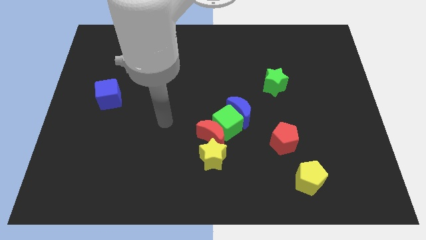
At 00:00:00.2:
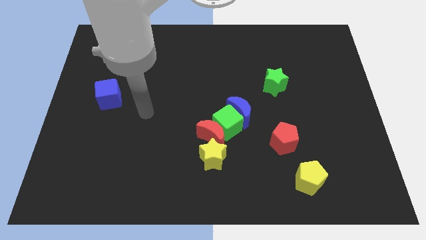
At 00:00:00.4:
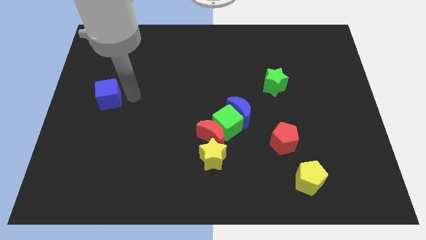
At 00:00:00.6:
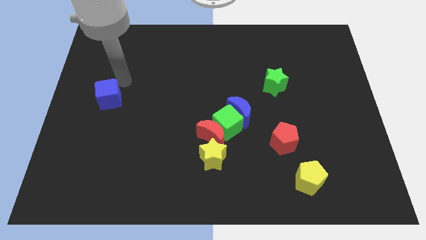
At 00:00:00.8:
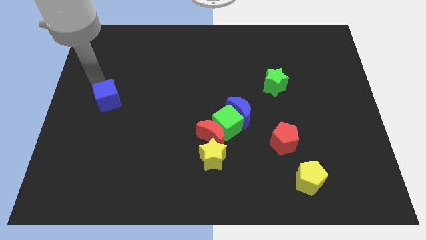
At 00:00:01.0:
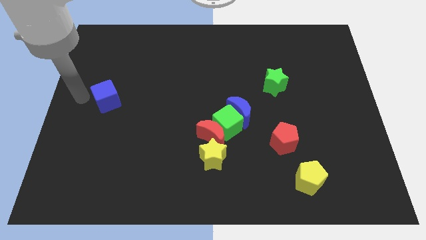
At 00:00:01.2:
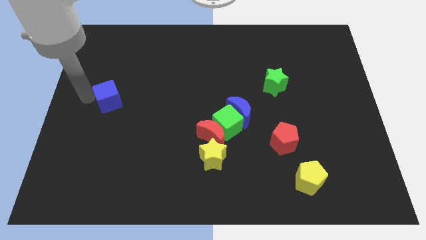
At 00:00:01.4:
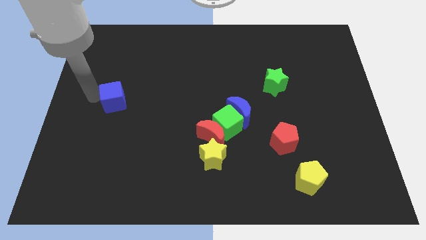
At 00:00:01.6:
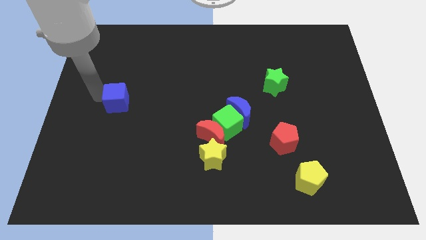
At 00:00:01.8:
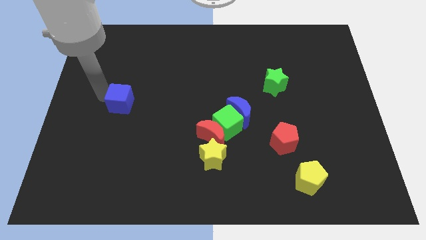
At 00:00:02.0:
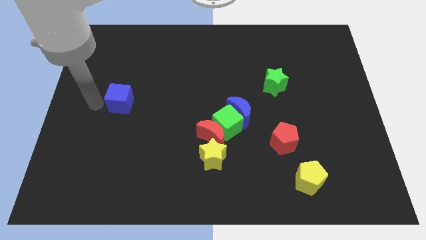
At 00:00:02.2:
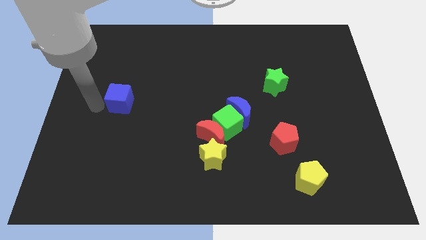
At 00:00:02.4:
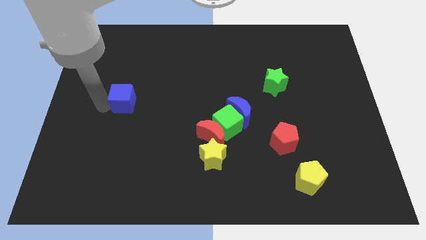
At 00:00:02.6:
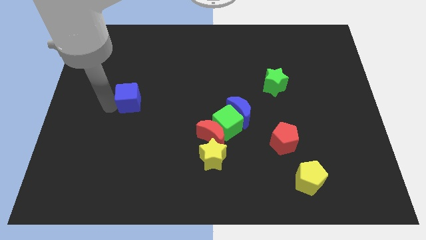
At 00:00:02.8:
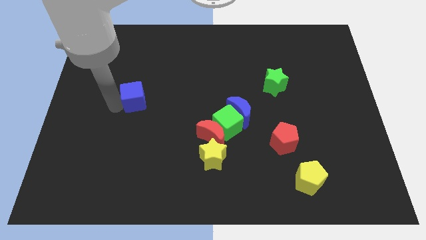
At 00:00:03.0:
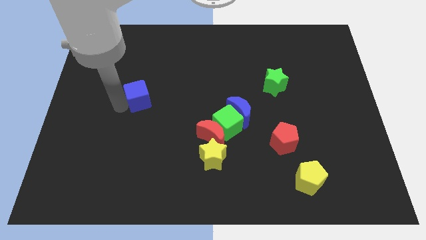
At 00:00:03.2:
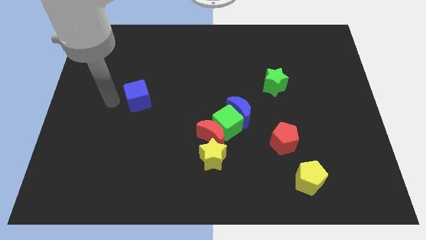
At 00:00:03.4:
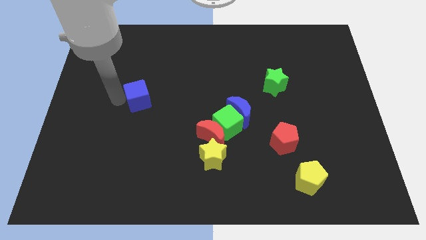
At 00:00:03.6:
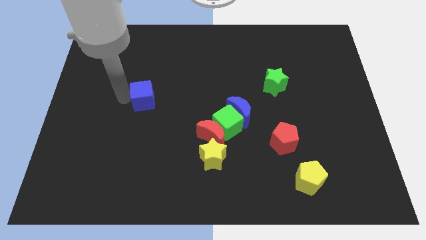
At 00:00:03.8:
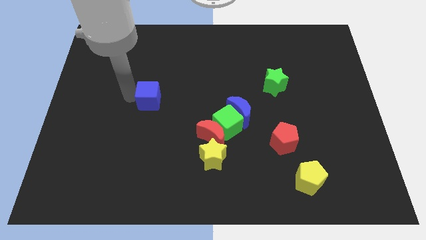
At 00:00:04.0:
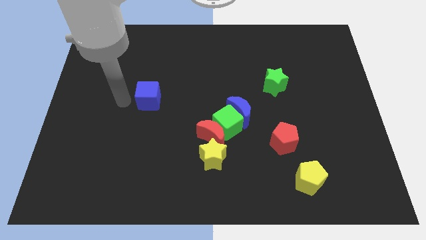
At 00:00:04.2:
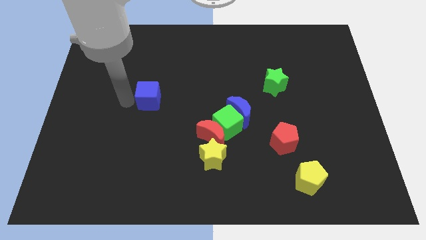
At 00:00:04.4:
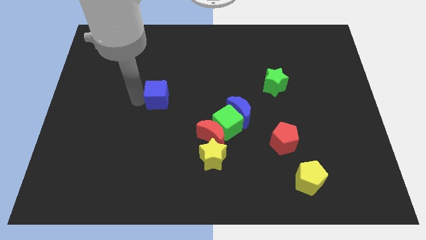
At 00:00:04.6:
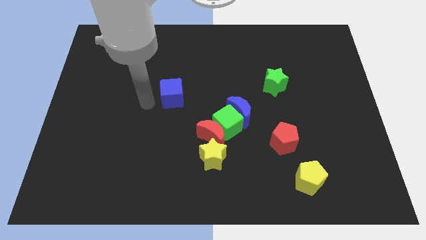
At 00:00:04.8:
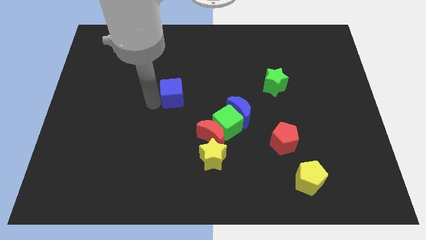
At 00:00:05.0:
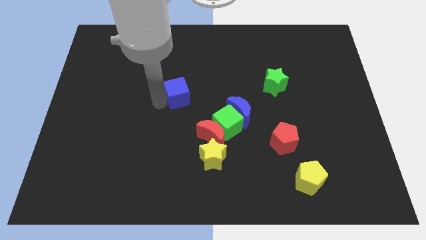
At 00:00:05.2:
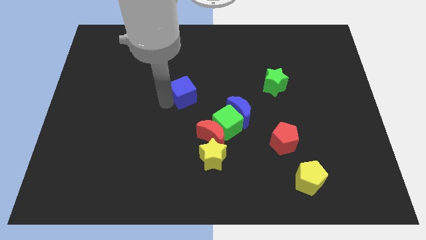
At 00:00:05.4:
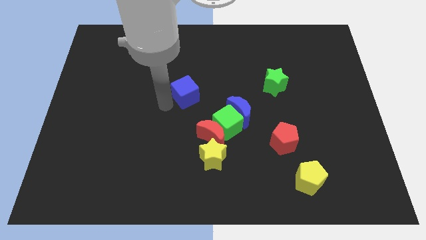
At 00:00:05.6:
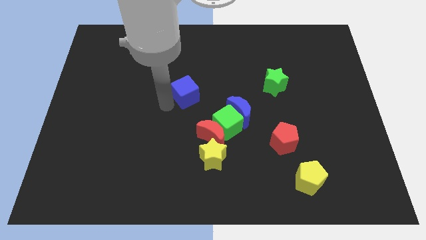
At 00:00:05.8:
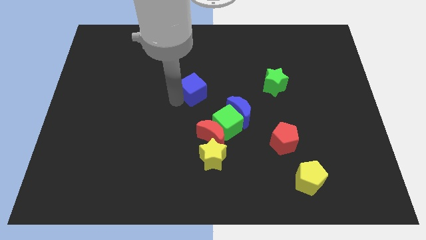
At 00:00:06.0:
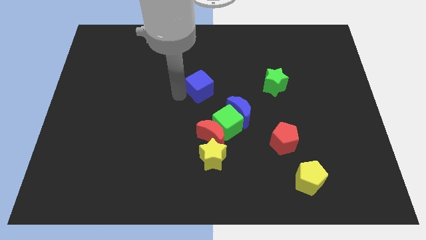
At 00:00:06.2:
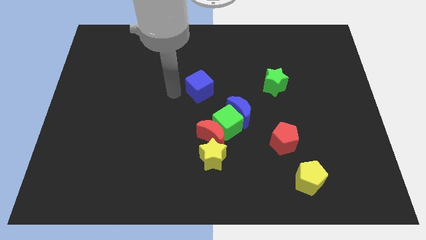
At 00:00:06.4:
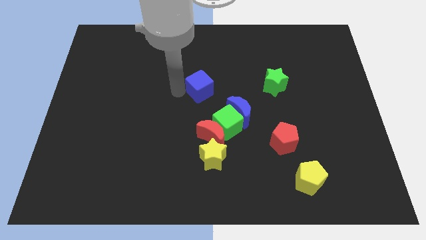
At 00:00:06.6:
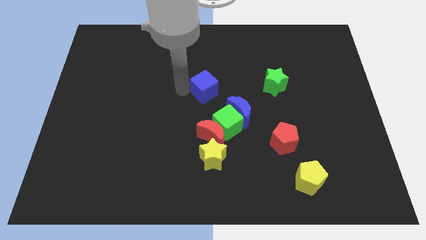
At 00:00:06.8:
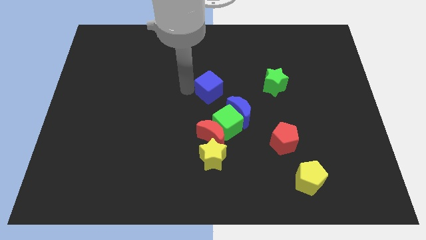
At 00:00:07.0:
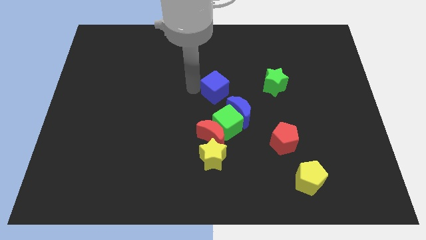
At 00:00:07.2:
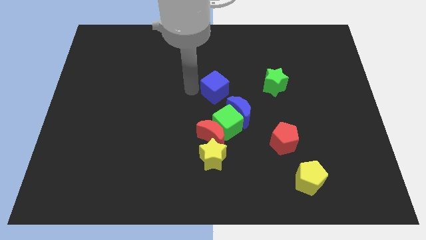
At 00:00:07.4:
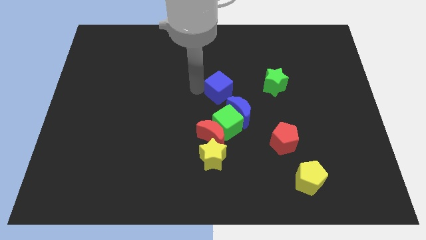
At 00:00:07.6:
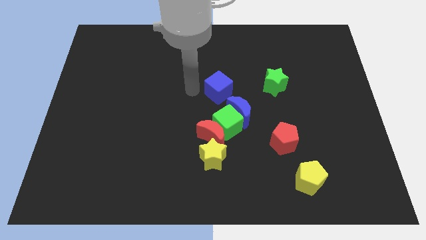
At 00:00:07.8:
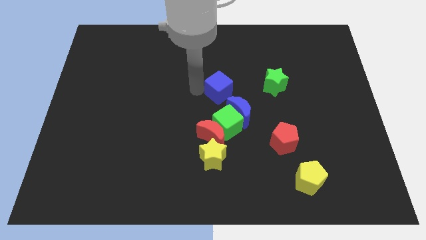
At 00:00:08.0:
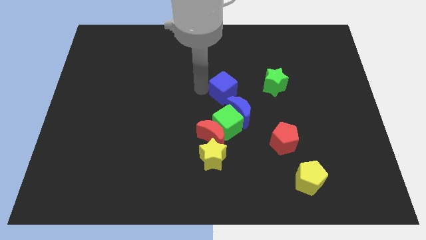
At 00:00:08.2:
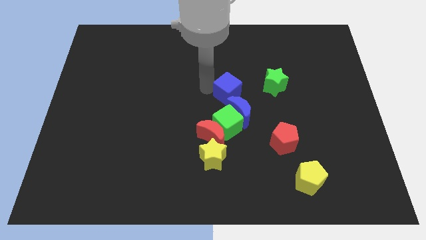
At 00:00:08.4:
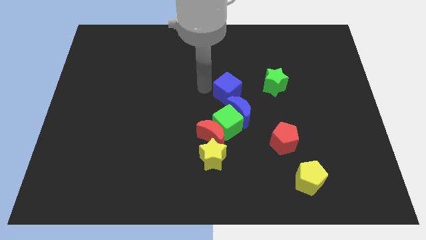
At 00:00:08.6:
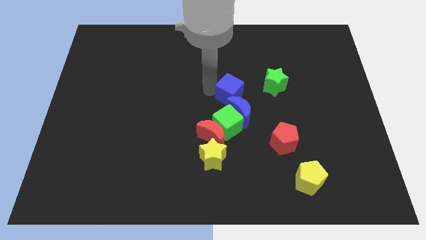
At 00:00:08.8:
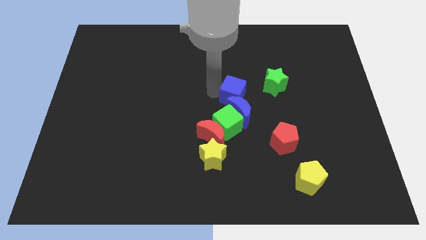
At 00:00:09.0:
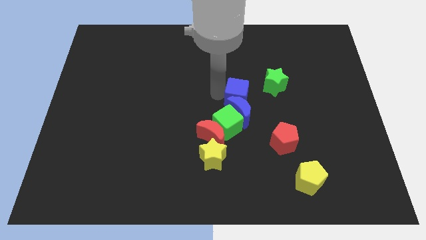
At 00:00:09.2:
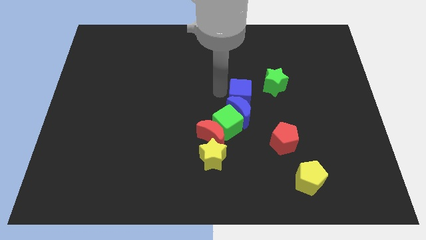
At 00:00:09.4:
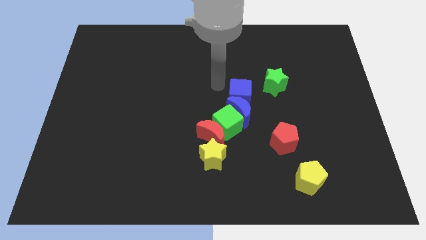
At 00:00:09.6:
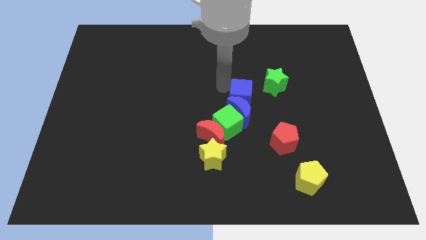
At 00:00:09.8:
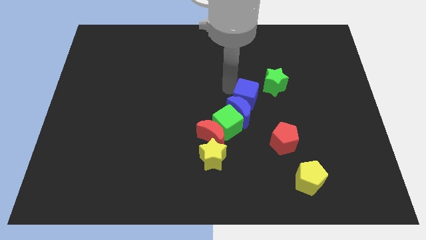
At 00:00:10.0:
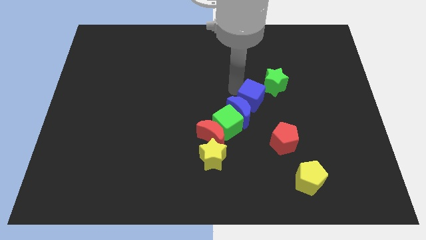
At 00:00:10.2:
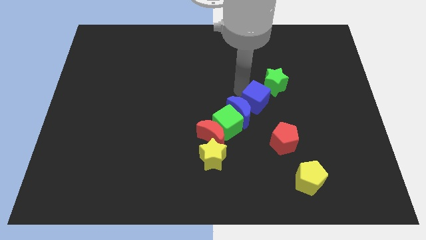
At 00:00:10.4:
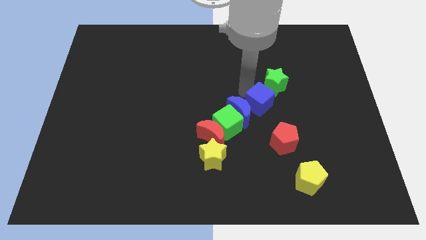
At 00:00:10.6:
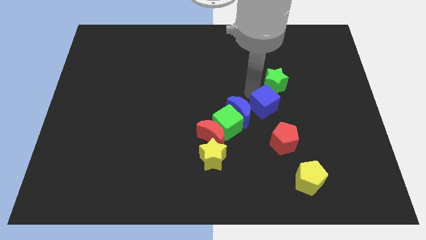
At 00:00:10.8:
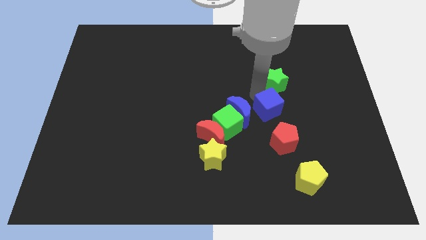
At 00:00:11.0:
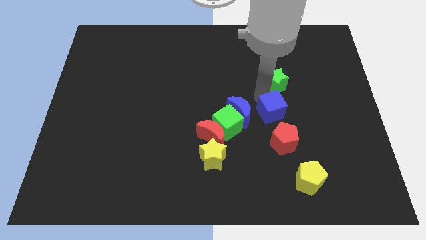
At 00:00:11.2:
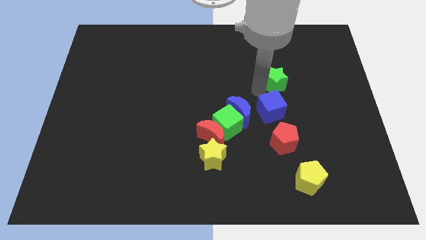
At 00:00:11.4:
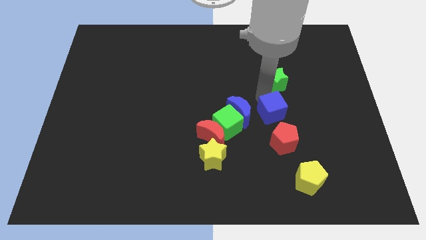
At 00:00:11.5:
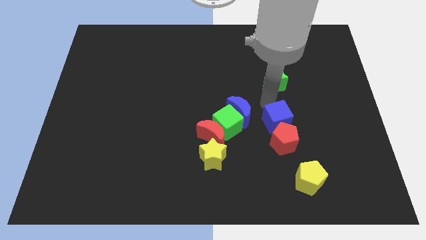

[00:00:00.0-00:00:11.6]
push the blue cube towards the red pentagon

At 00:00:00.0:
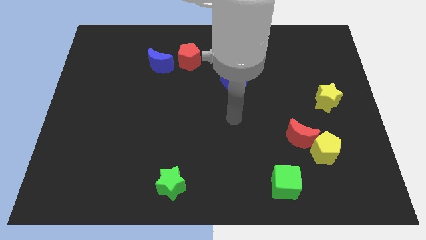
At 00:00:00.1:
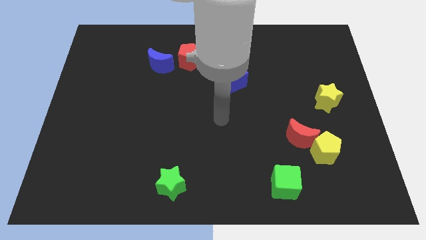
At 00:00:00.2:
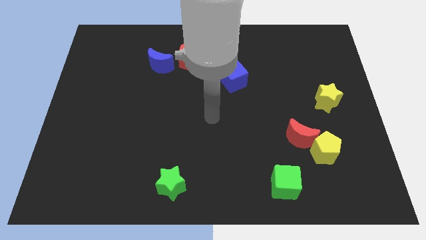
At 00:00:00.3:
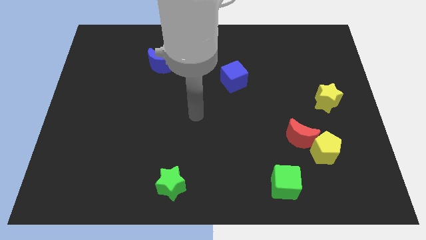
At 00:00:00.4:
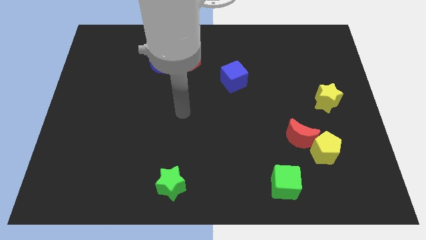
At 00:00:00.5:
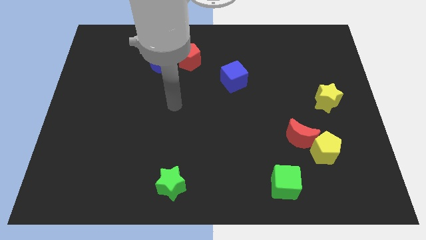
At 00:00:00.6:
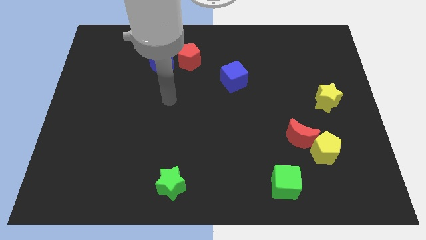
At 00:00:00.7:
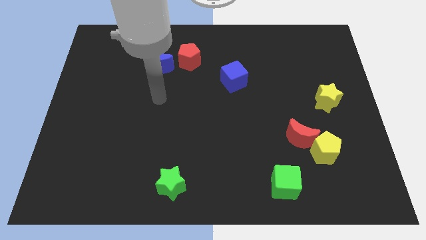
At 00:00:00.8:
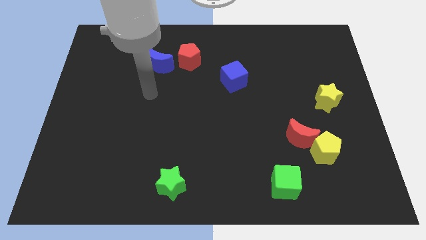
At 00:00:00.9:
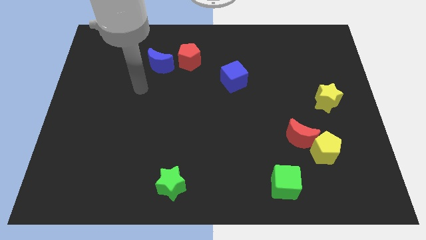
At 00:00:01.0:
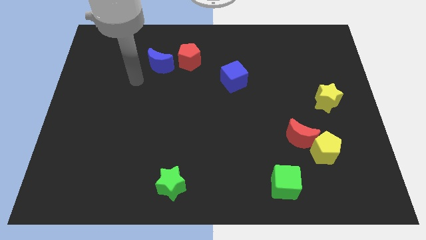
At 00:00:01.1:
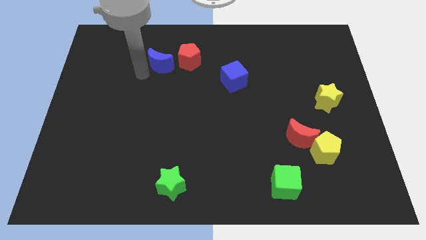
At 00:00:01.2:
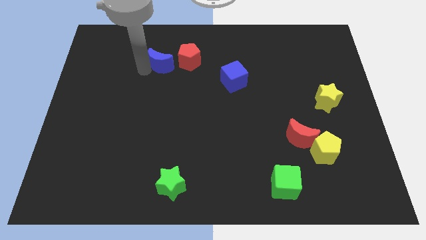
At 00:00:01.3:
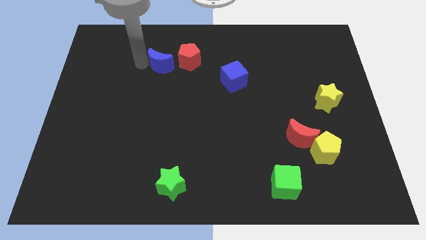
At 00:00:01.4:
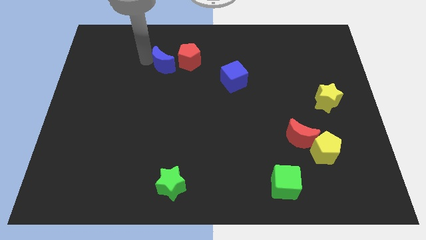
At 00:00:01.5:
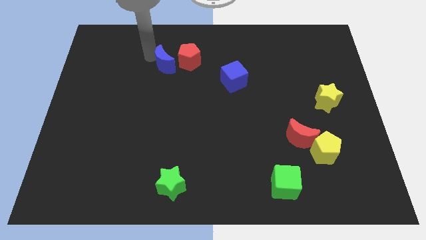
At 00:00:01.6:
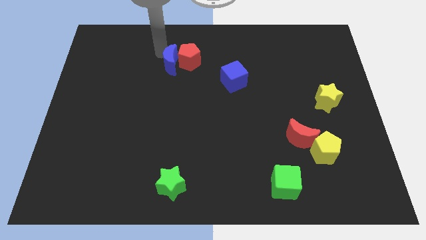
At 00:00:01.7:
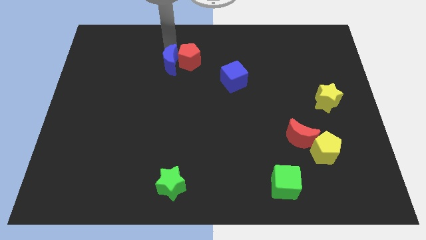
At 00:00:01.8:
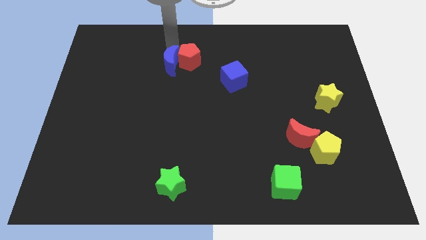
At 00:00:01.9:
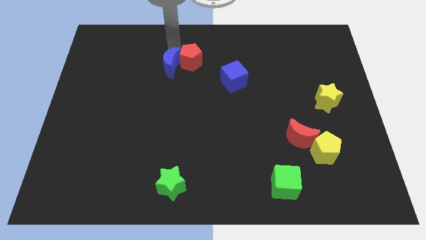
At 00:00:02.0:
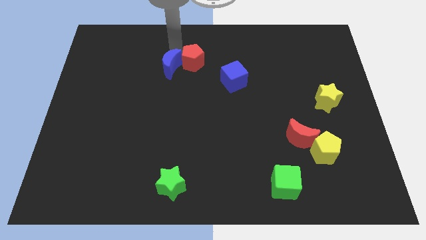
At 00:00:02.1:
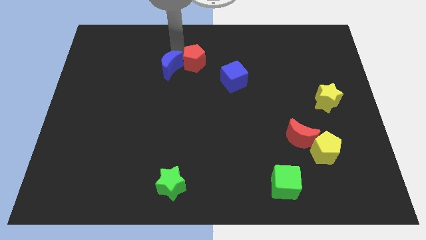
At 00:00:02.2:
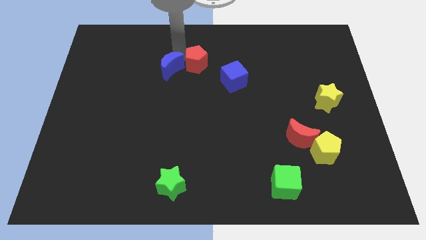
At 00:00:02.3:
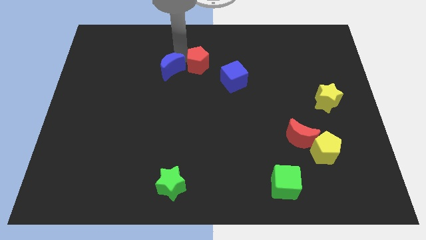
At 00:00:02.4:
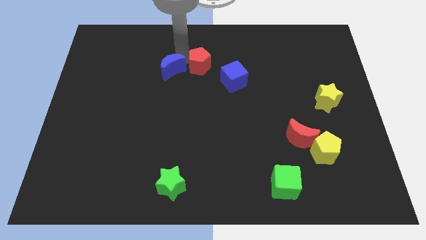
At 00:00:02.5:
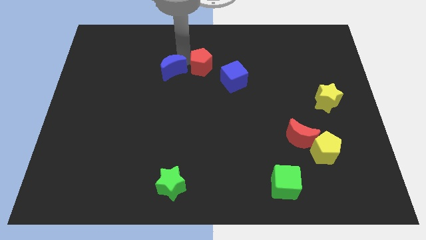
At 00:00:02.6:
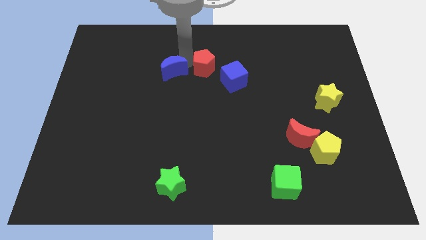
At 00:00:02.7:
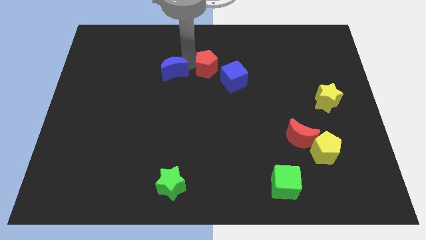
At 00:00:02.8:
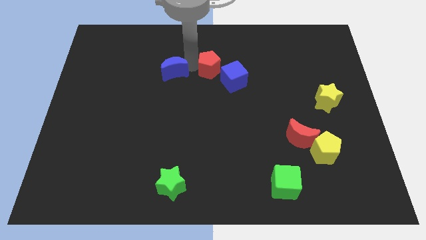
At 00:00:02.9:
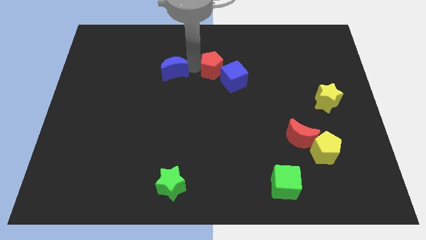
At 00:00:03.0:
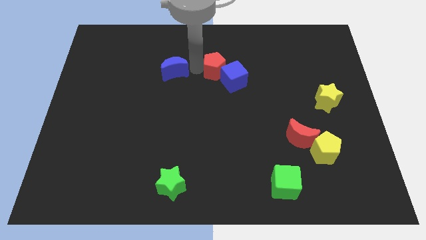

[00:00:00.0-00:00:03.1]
slide the red pentagon towards the blue cube
